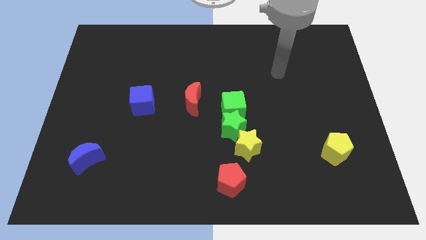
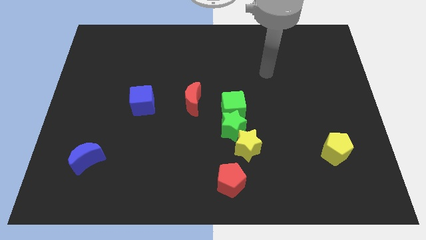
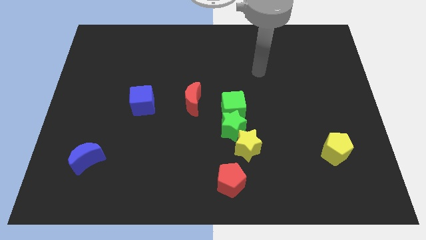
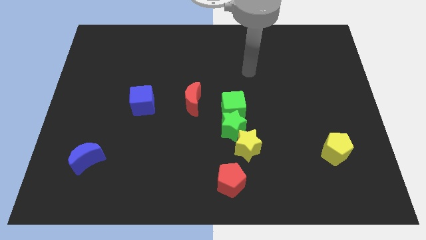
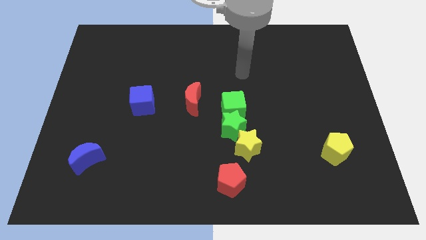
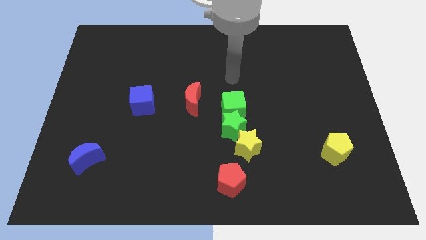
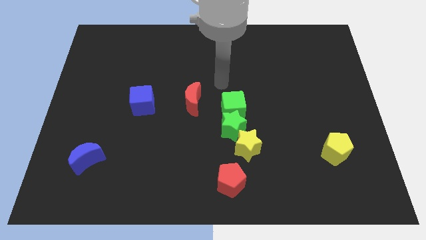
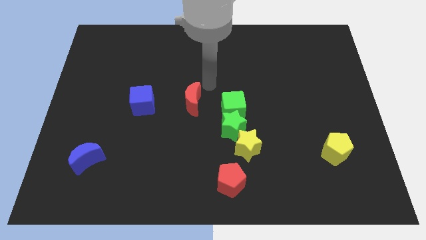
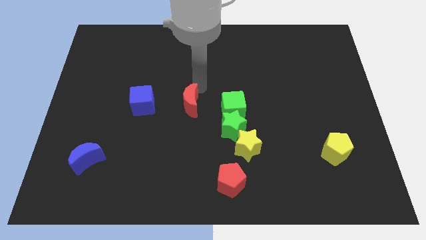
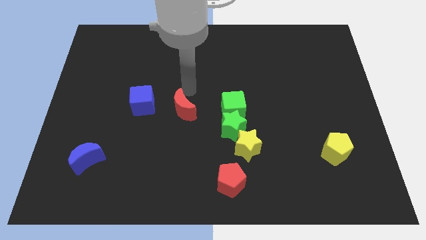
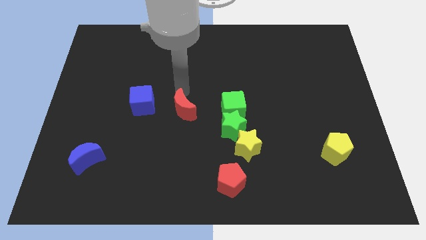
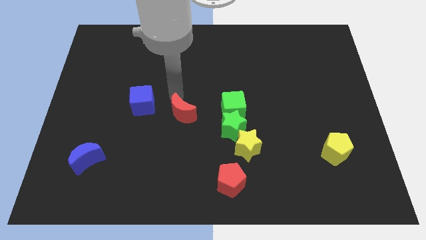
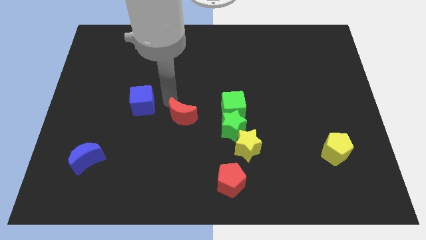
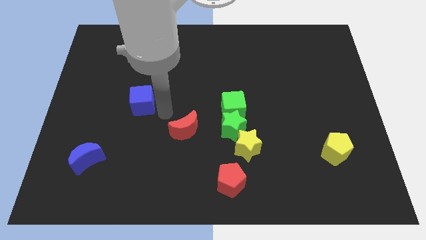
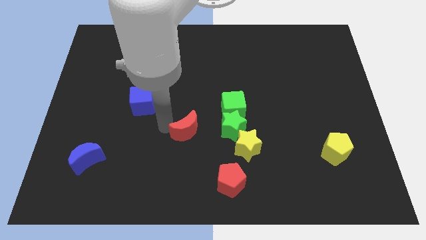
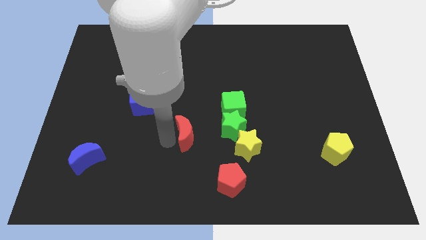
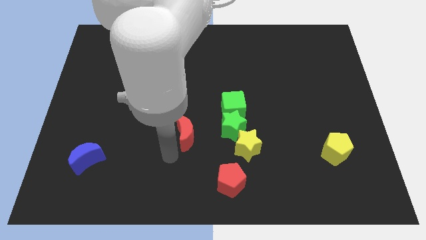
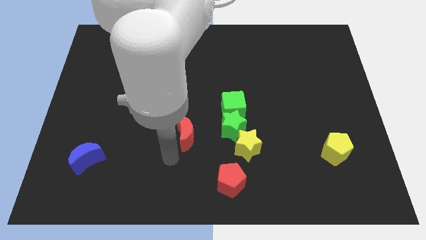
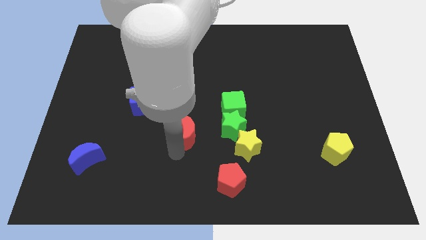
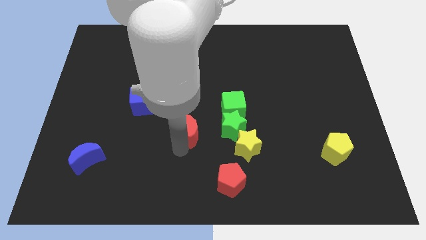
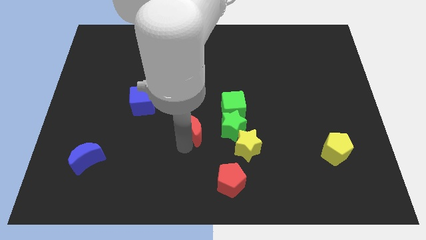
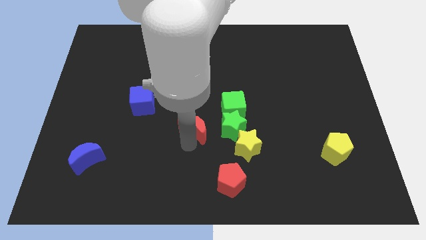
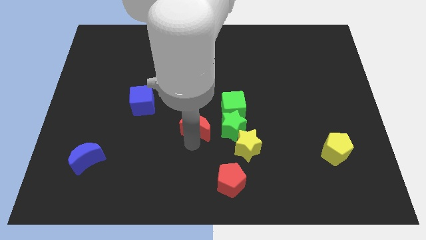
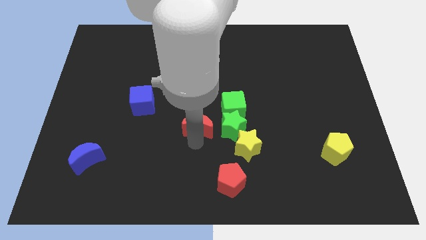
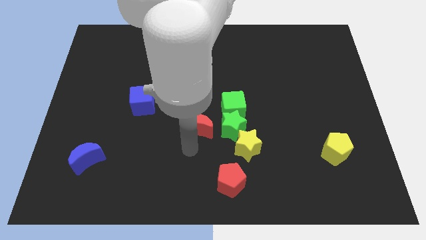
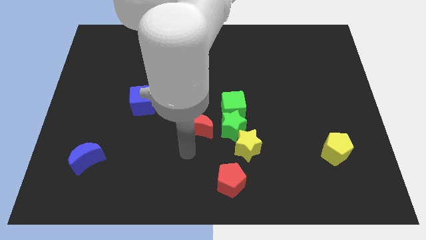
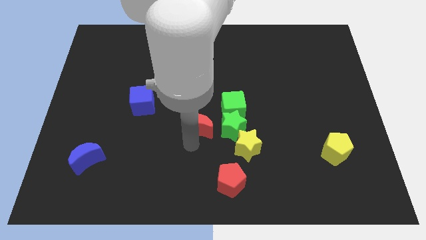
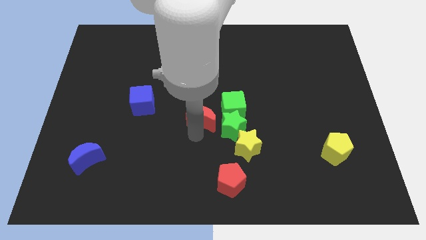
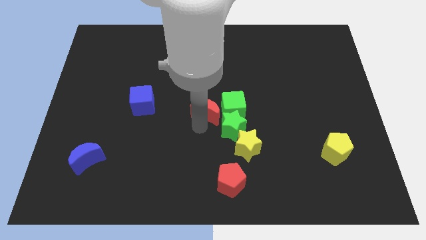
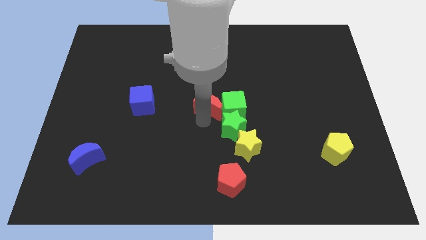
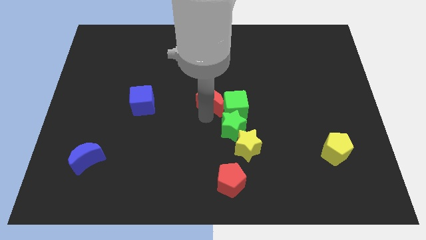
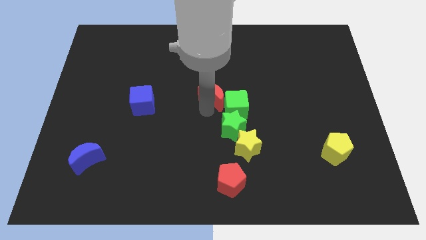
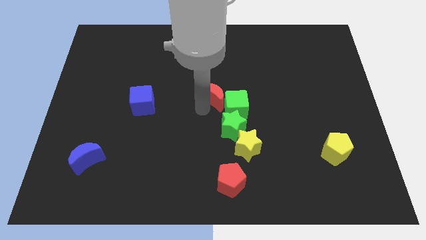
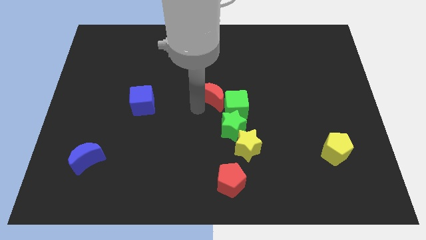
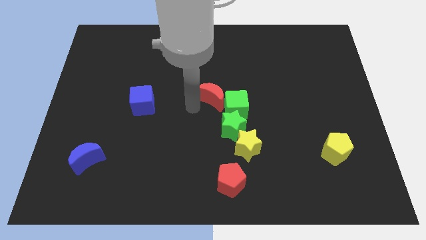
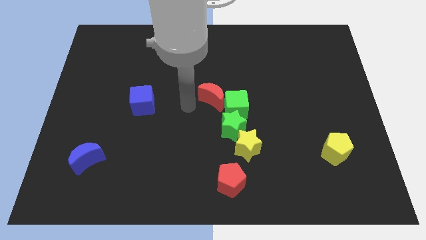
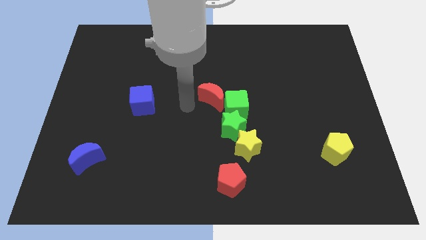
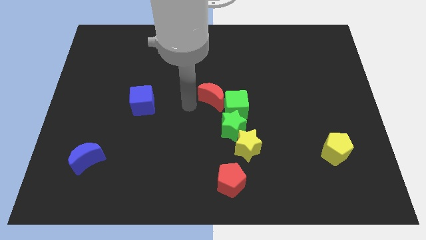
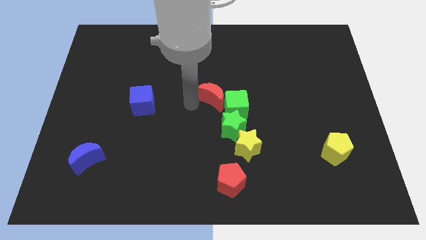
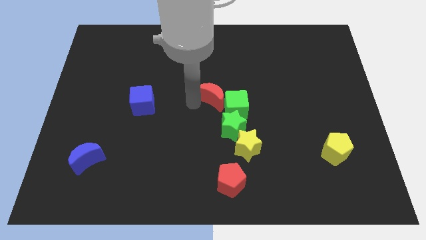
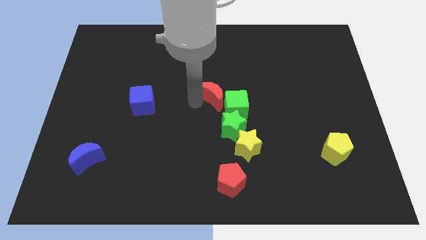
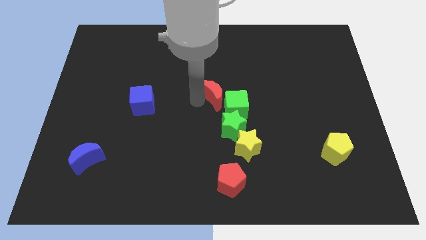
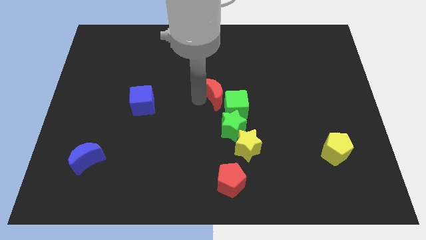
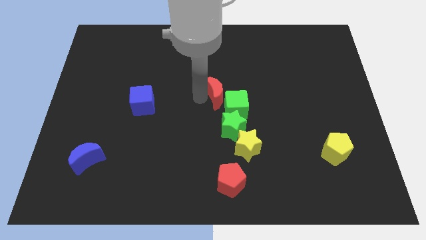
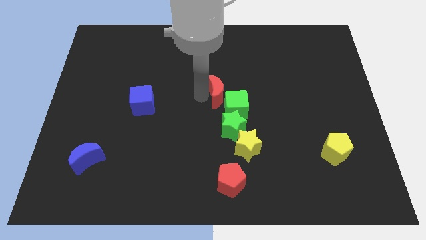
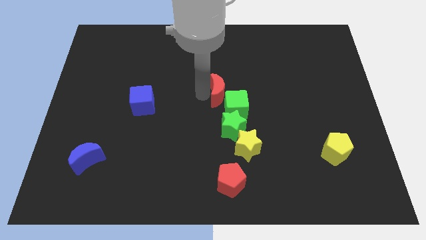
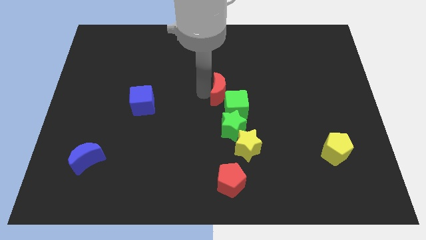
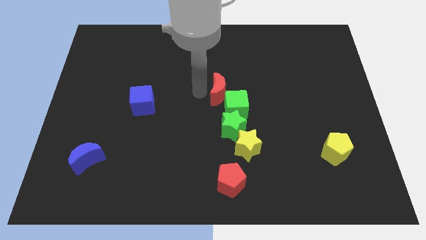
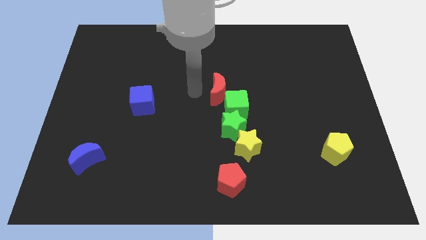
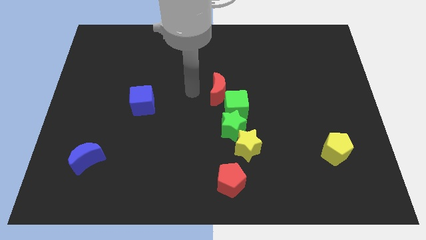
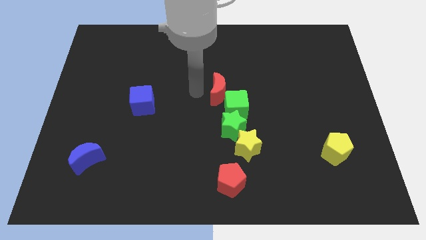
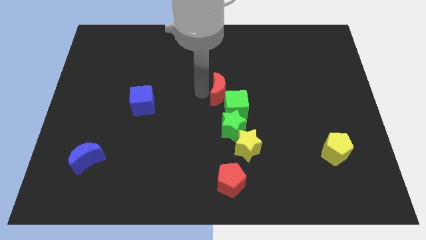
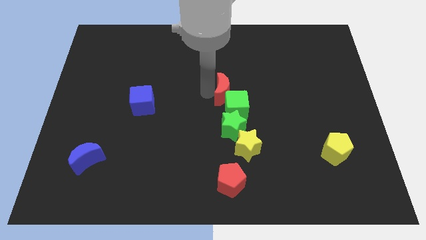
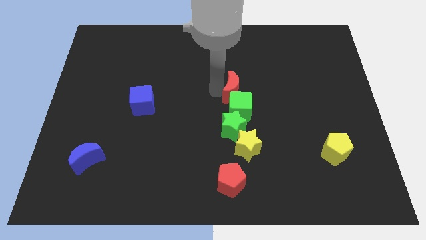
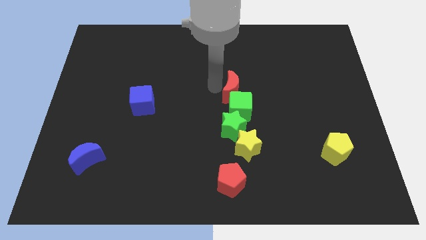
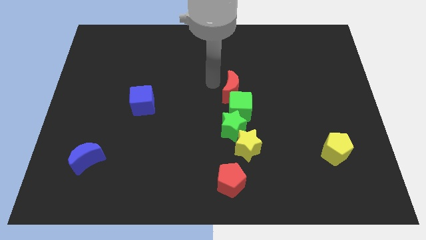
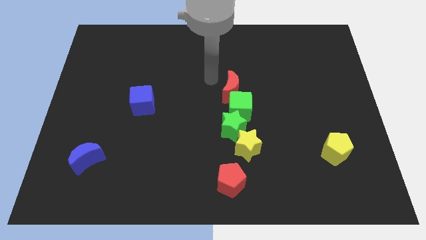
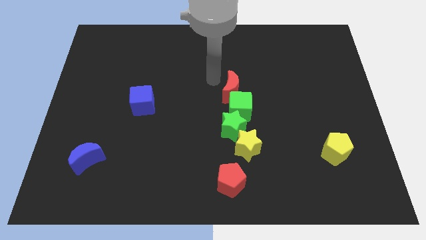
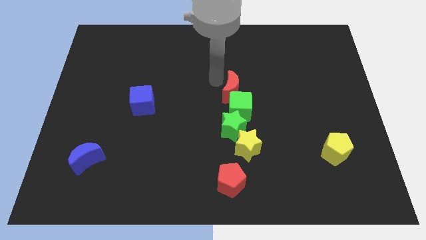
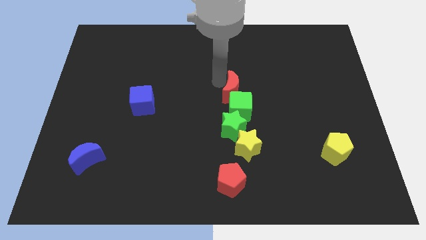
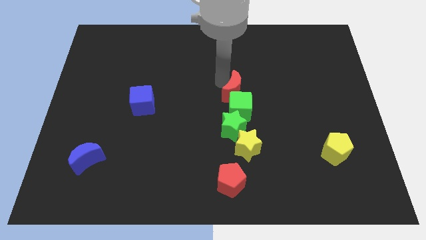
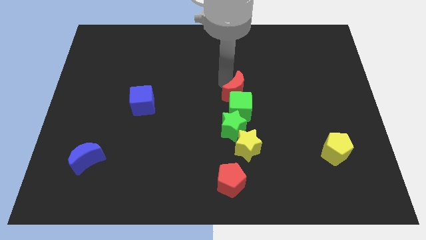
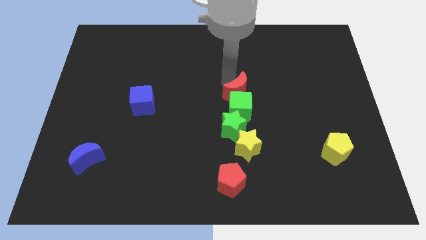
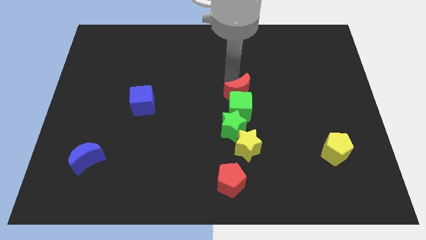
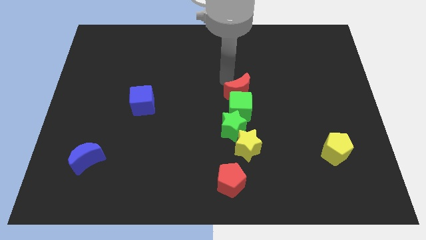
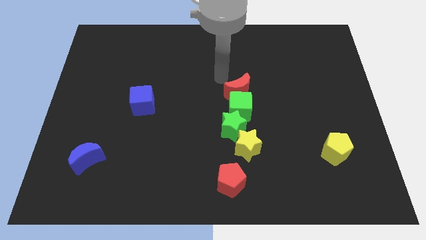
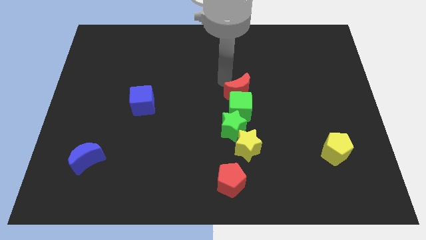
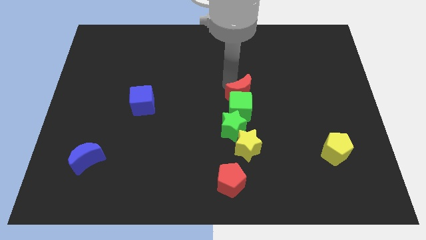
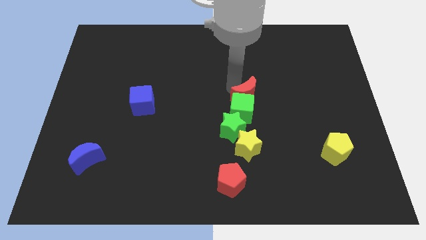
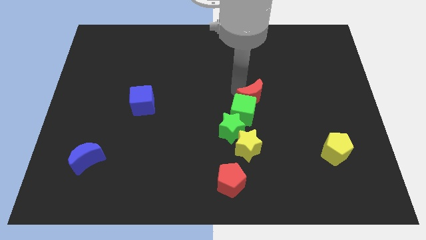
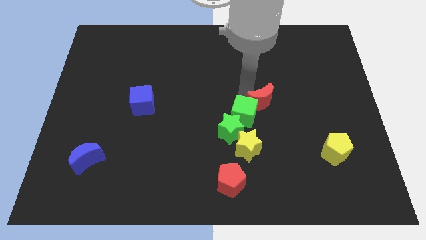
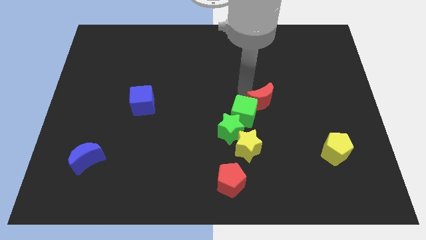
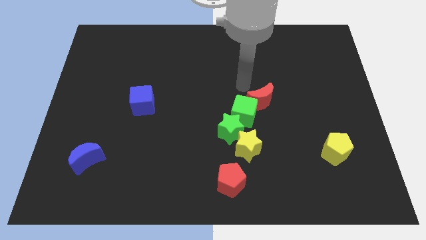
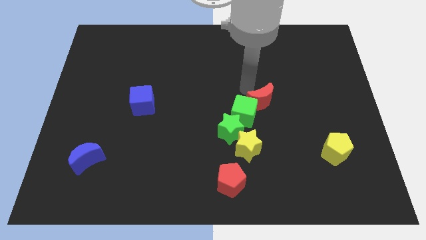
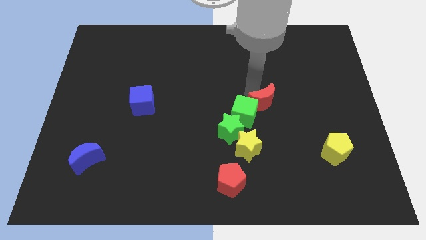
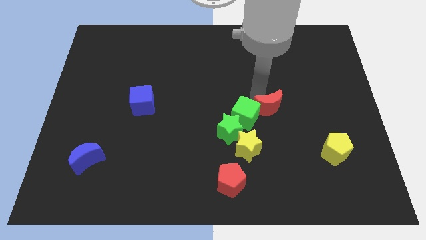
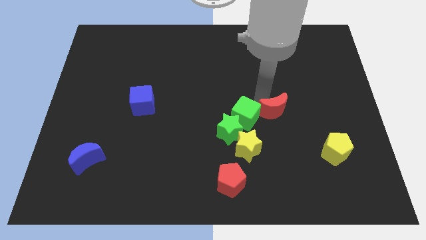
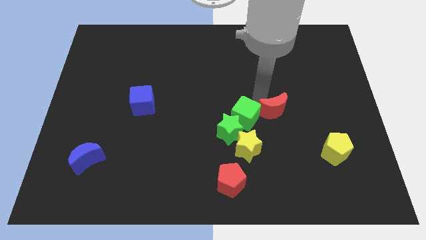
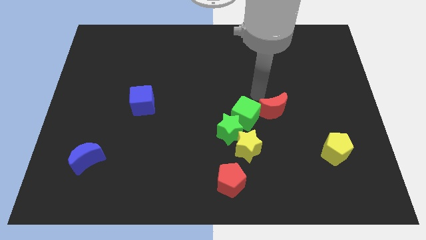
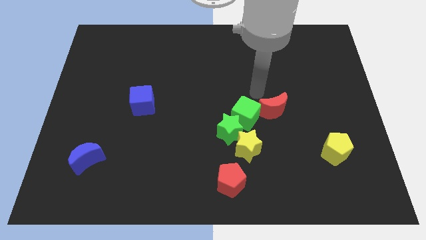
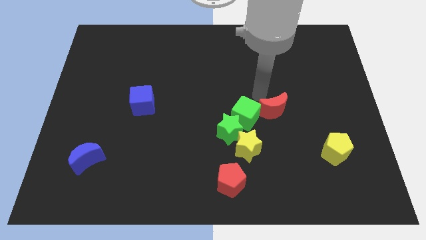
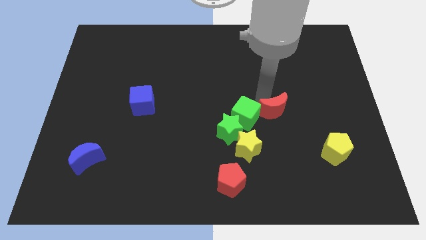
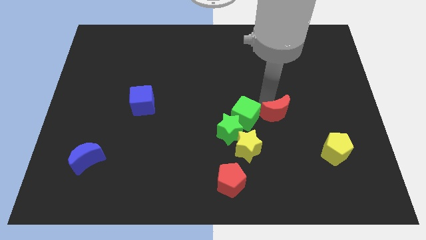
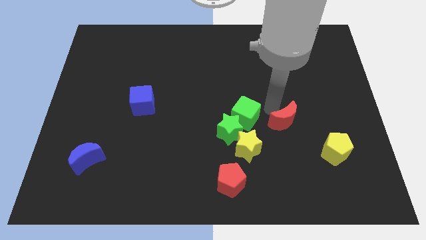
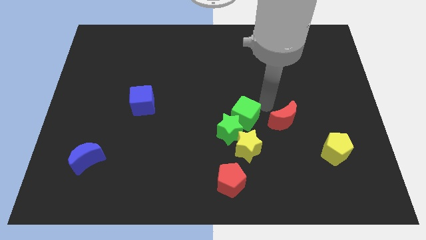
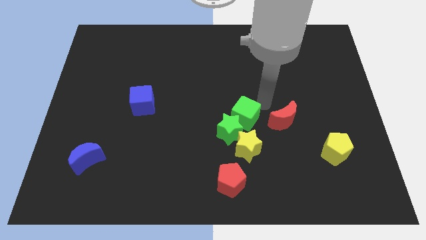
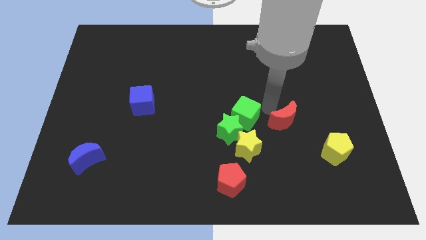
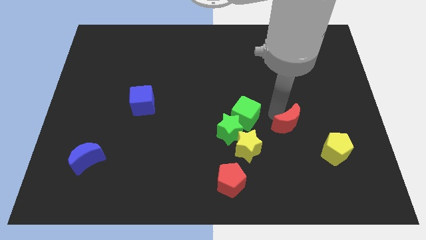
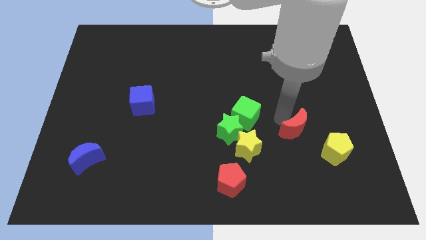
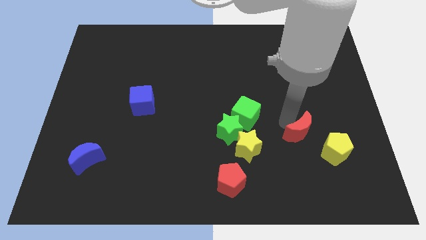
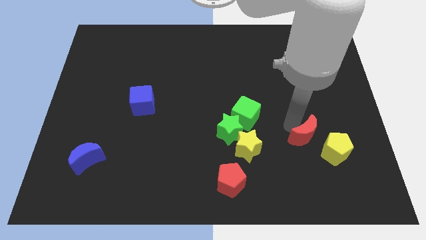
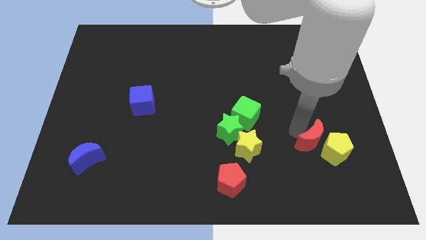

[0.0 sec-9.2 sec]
slide the red moon towards the yellow pentagon
